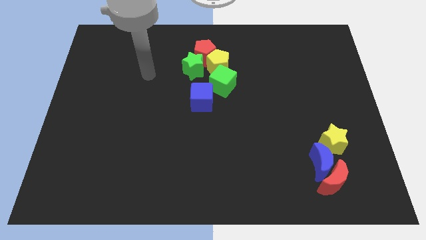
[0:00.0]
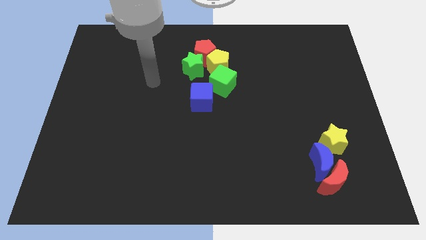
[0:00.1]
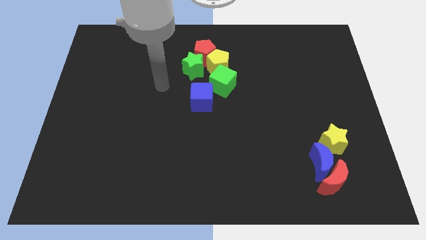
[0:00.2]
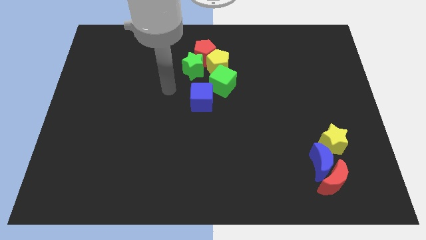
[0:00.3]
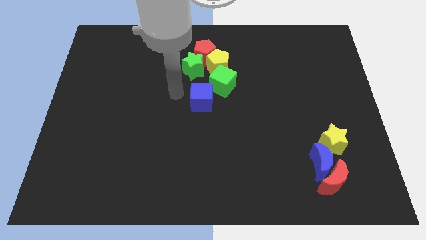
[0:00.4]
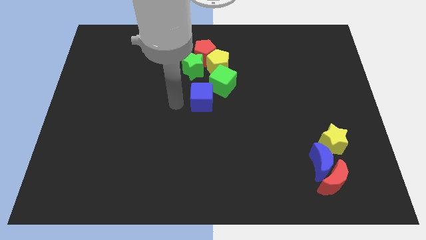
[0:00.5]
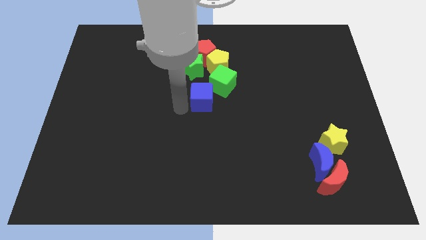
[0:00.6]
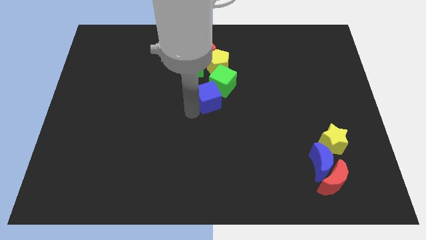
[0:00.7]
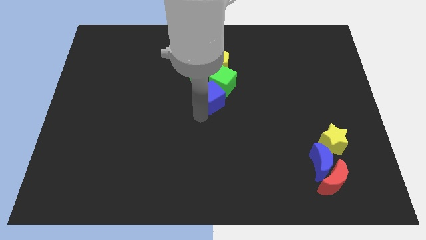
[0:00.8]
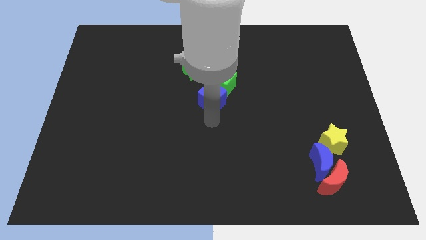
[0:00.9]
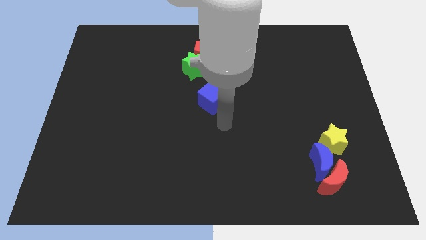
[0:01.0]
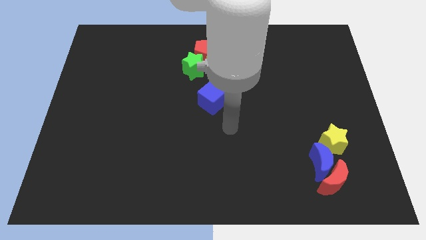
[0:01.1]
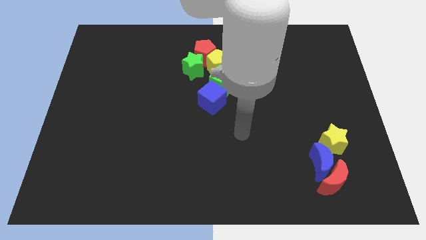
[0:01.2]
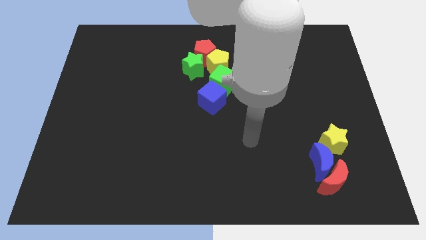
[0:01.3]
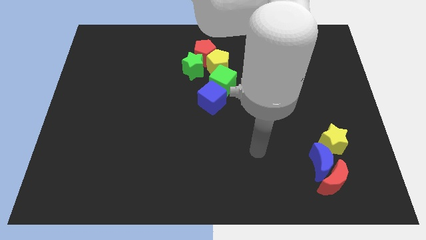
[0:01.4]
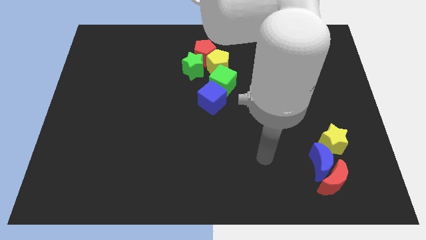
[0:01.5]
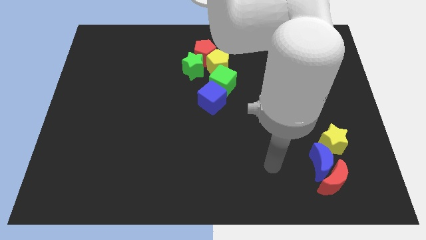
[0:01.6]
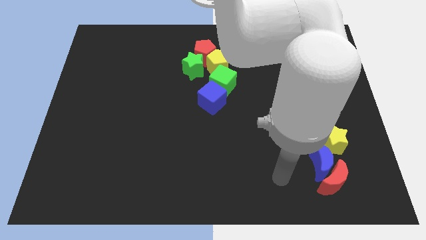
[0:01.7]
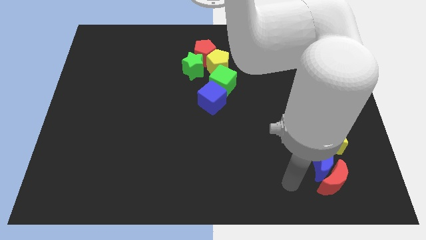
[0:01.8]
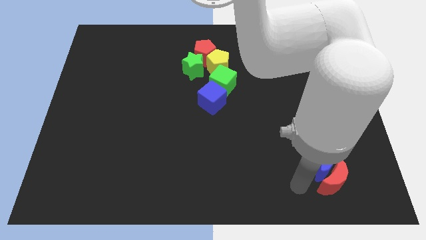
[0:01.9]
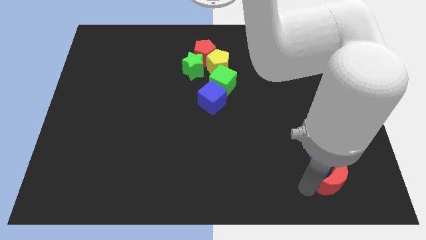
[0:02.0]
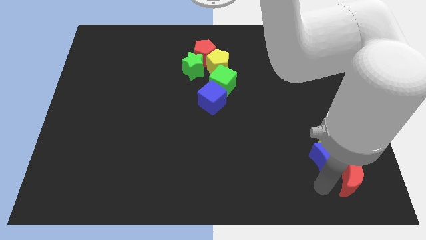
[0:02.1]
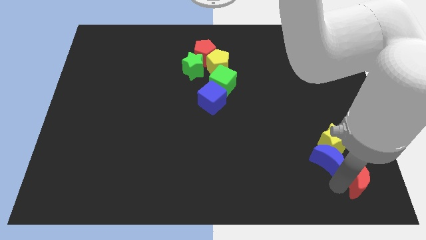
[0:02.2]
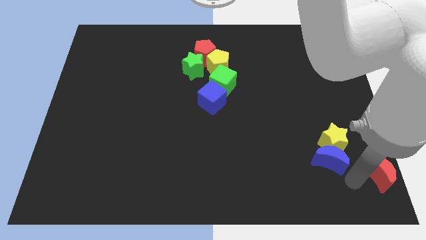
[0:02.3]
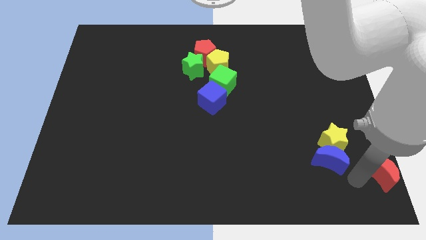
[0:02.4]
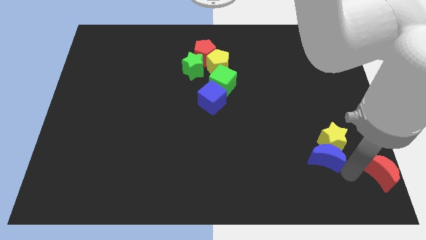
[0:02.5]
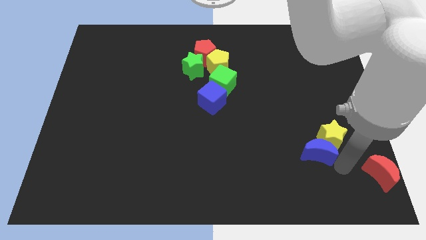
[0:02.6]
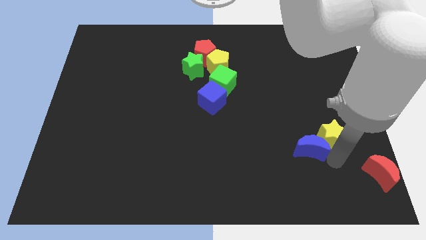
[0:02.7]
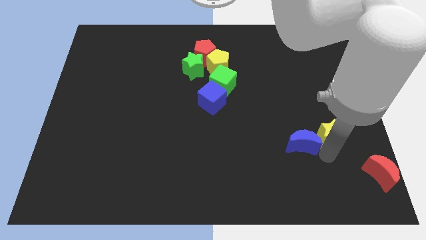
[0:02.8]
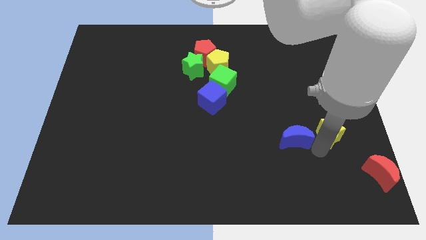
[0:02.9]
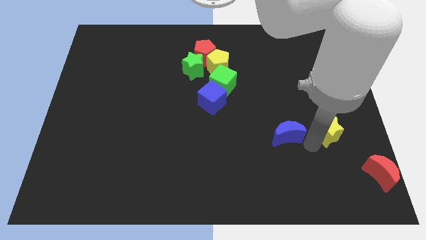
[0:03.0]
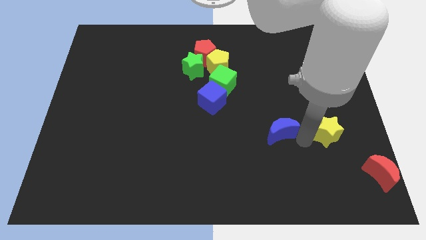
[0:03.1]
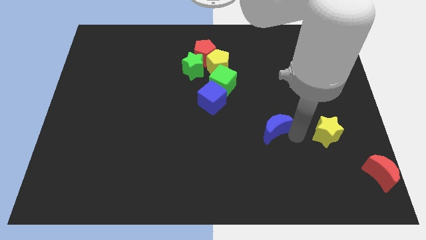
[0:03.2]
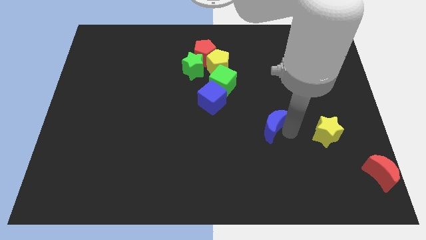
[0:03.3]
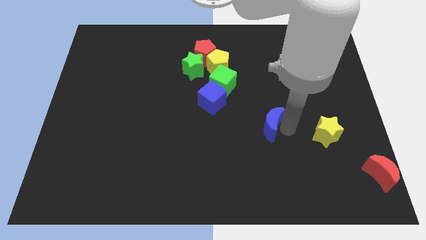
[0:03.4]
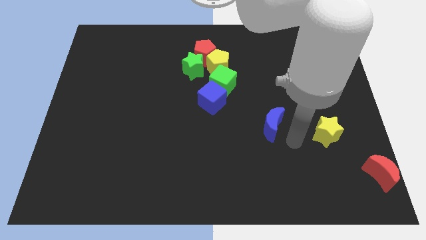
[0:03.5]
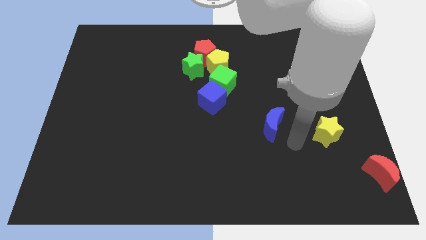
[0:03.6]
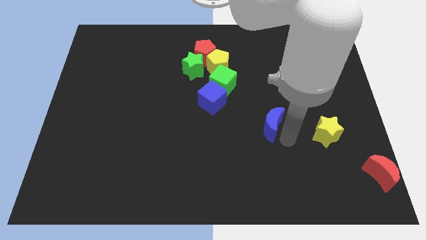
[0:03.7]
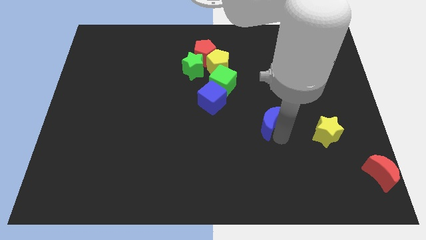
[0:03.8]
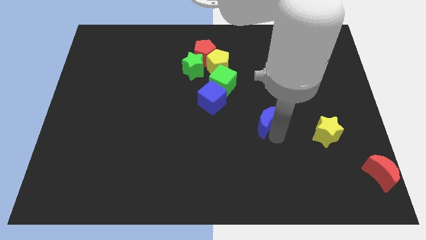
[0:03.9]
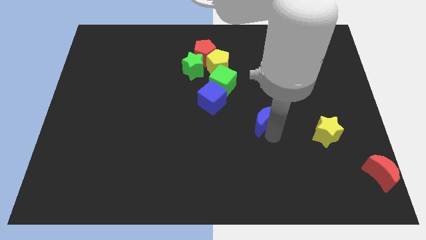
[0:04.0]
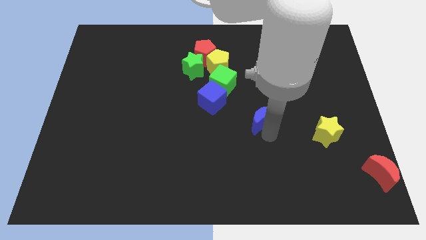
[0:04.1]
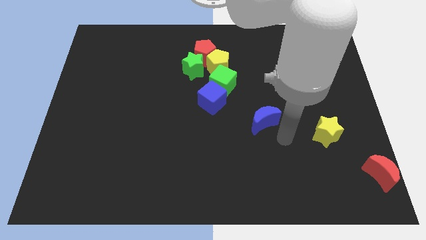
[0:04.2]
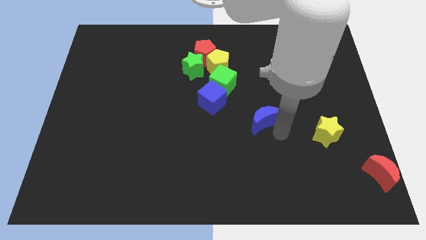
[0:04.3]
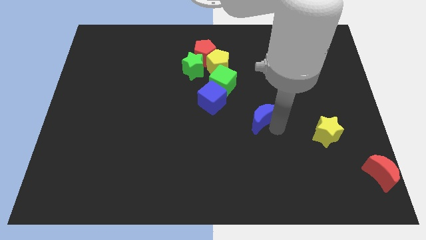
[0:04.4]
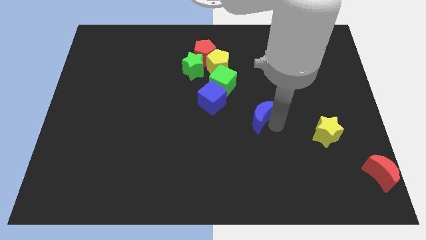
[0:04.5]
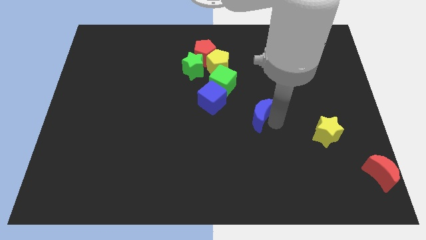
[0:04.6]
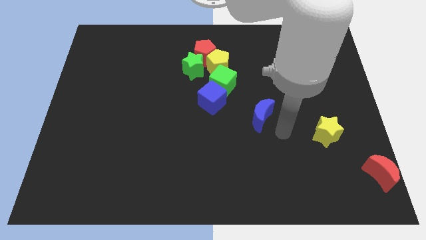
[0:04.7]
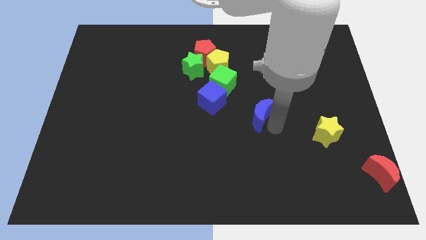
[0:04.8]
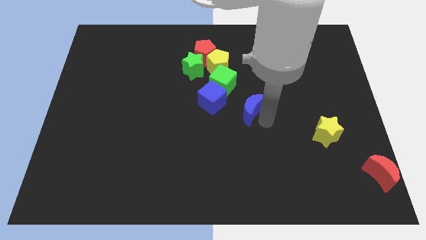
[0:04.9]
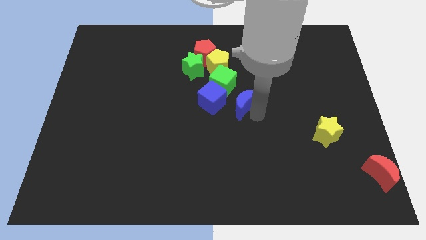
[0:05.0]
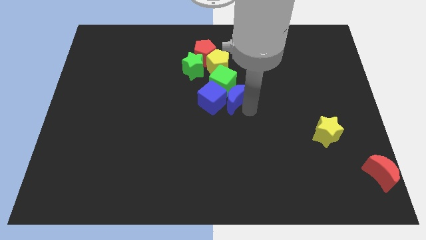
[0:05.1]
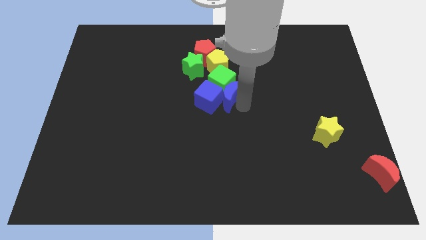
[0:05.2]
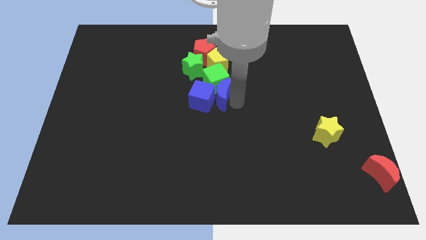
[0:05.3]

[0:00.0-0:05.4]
move the blue moon diagonally down and to the right of the green star
